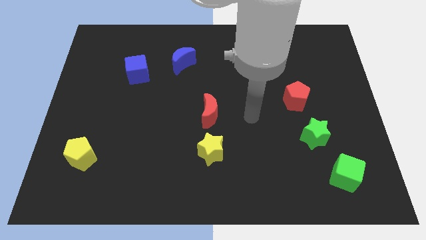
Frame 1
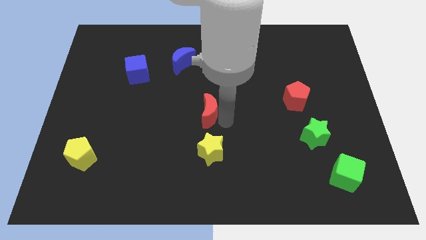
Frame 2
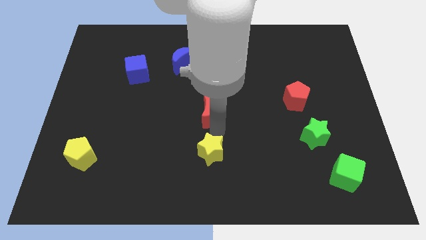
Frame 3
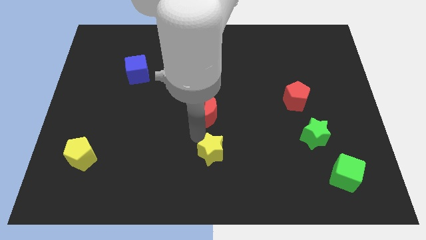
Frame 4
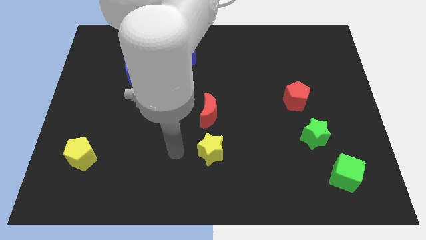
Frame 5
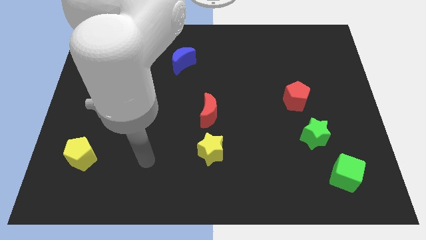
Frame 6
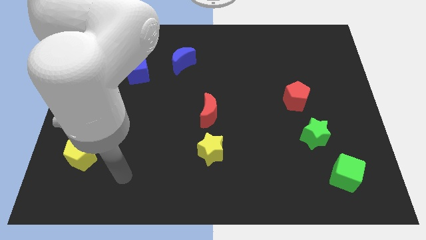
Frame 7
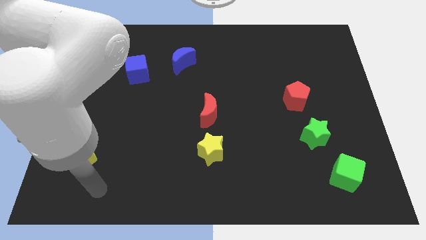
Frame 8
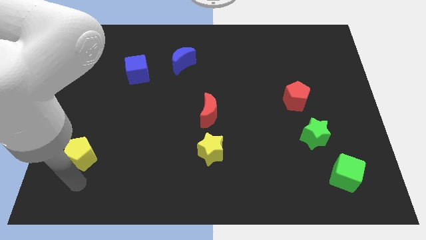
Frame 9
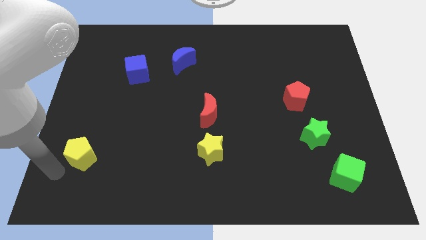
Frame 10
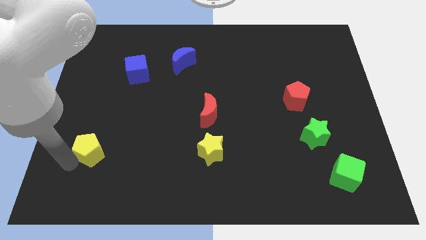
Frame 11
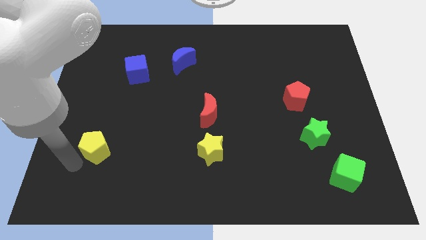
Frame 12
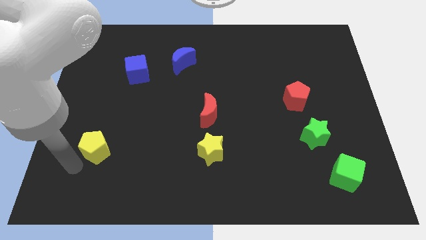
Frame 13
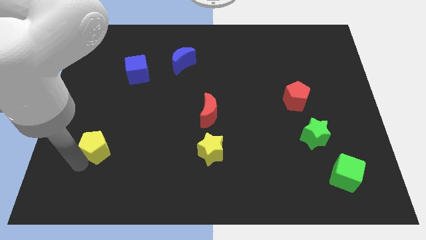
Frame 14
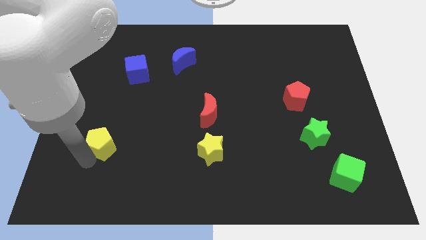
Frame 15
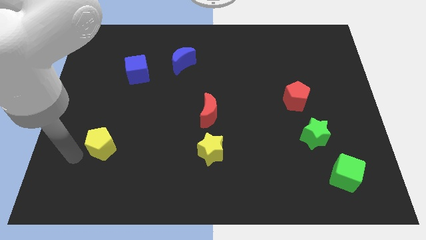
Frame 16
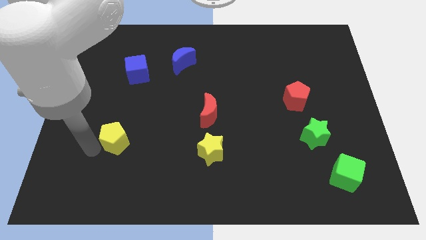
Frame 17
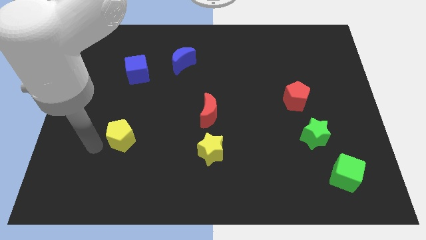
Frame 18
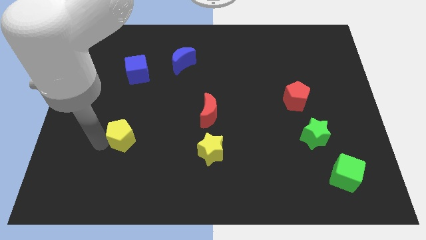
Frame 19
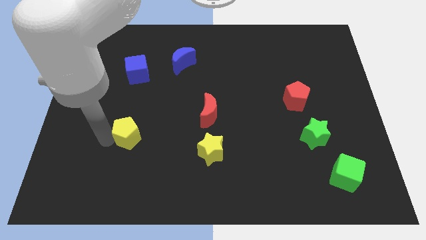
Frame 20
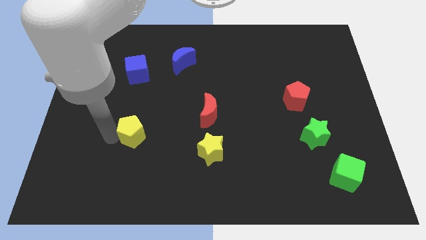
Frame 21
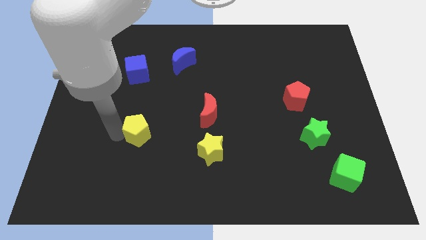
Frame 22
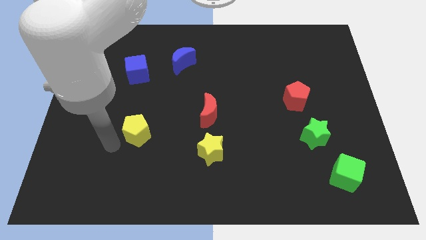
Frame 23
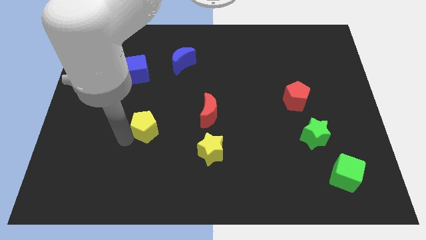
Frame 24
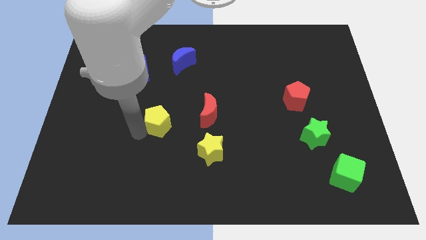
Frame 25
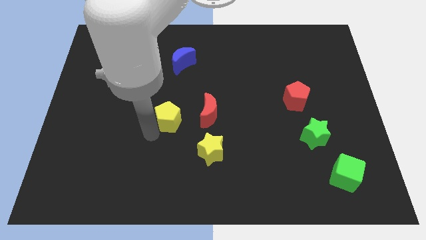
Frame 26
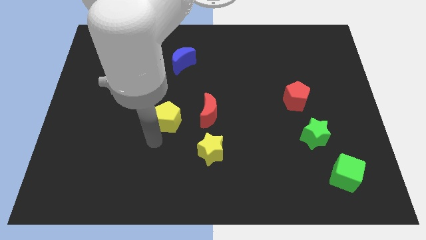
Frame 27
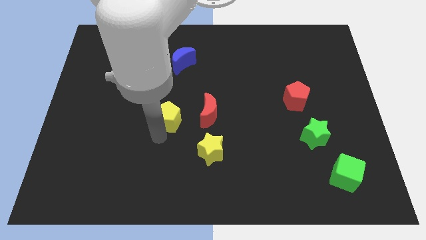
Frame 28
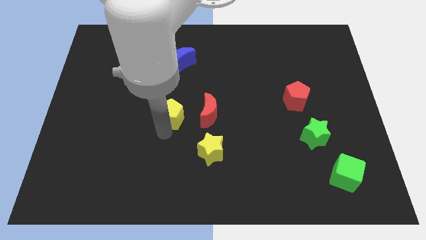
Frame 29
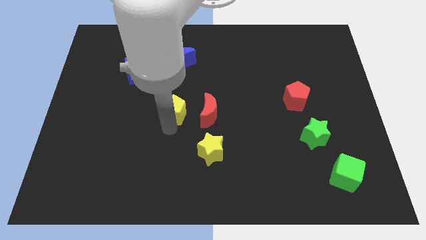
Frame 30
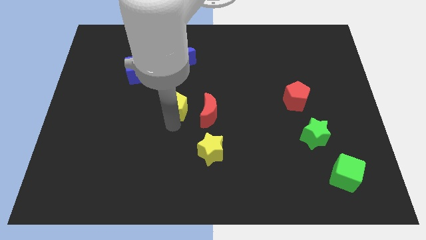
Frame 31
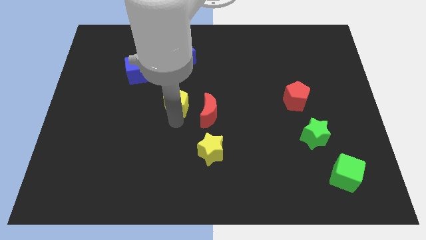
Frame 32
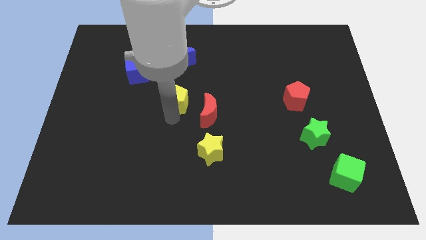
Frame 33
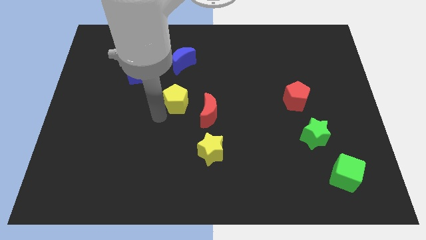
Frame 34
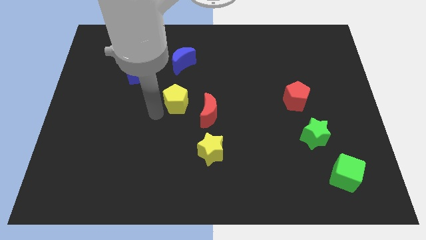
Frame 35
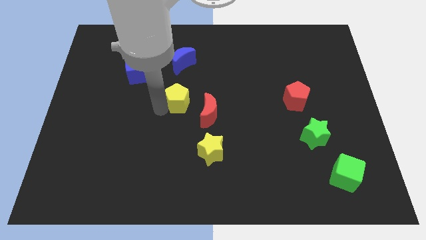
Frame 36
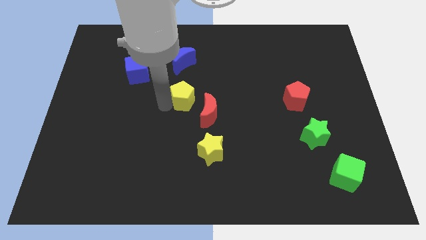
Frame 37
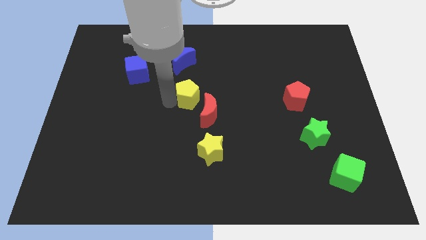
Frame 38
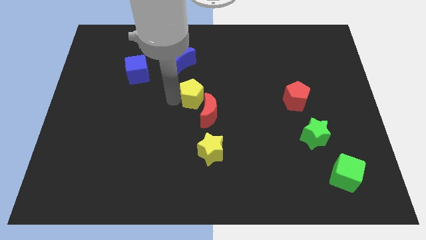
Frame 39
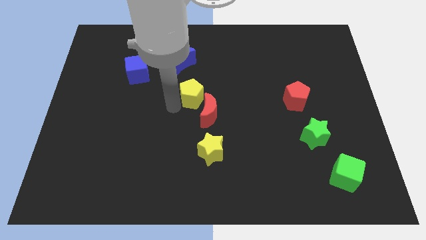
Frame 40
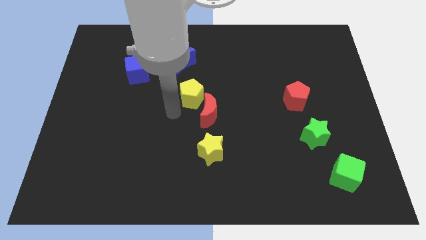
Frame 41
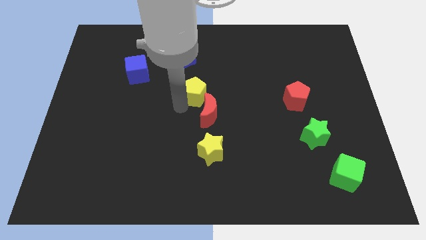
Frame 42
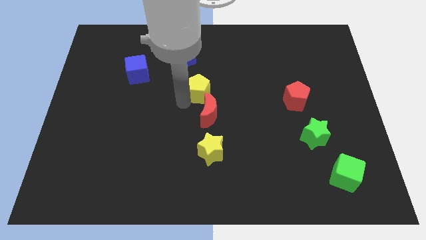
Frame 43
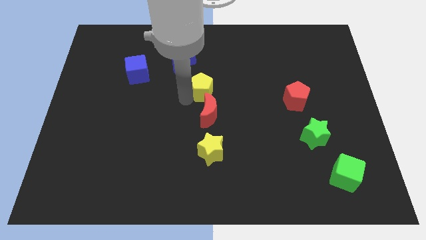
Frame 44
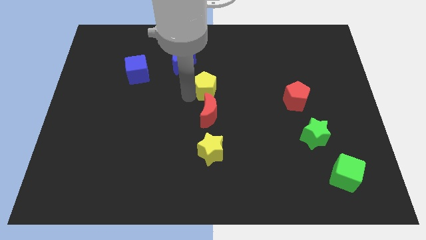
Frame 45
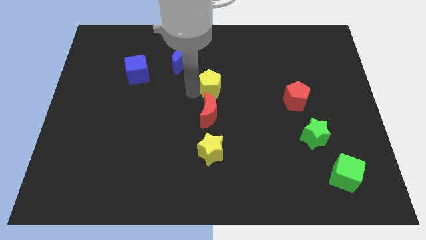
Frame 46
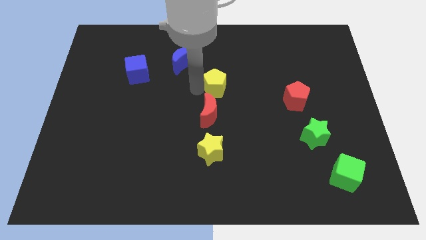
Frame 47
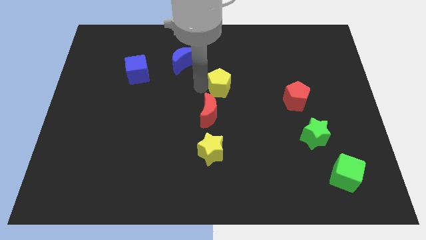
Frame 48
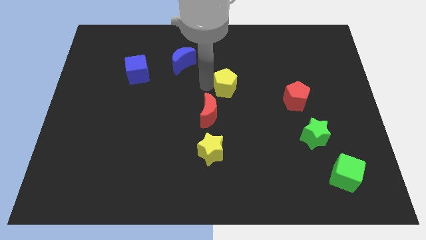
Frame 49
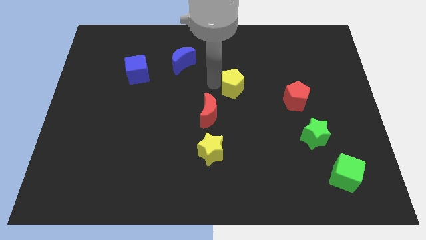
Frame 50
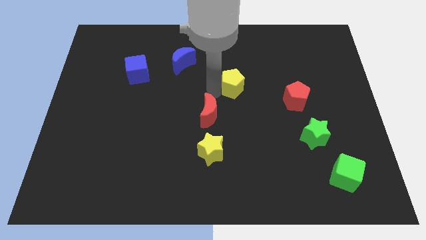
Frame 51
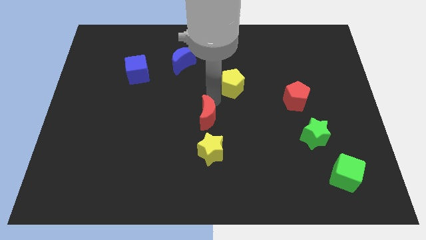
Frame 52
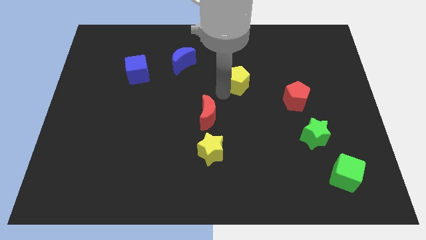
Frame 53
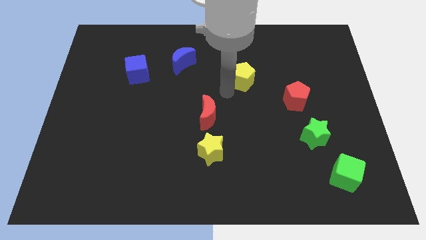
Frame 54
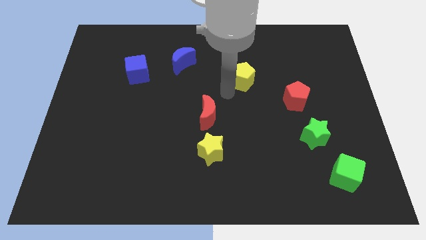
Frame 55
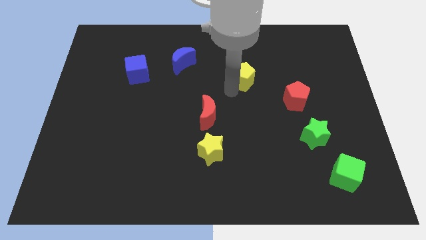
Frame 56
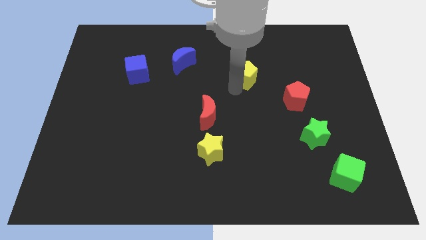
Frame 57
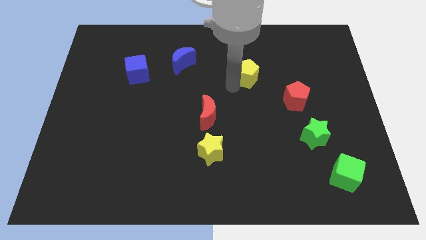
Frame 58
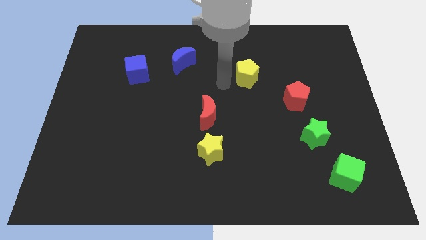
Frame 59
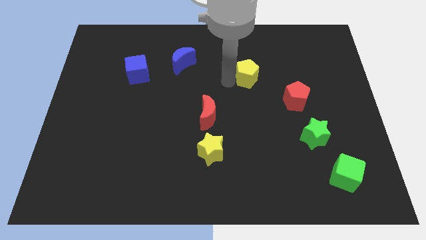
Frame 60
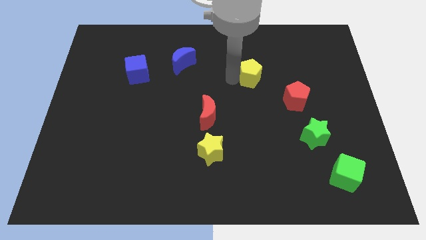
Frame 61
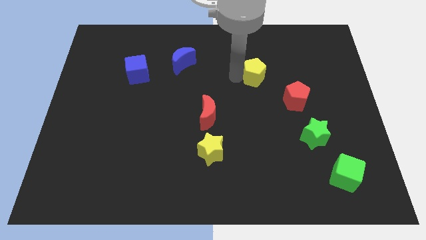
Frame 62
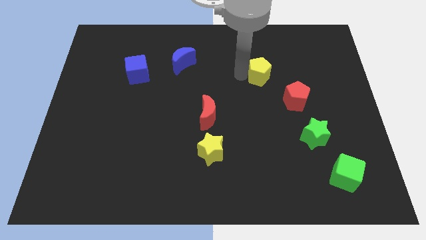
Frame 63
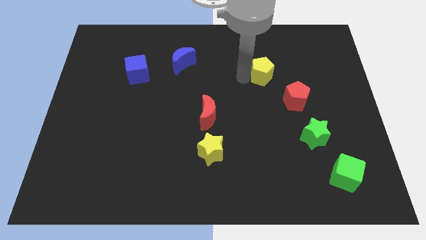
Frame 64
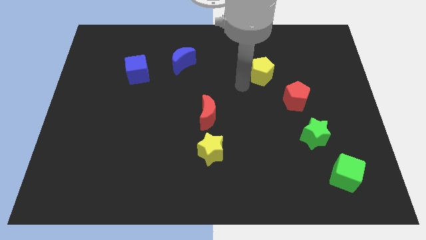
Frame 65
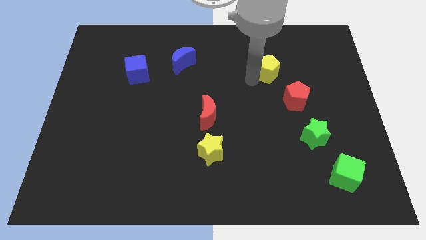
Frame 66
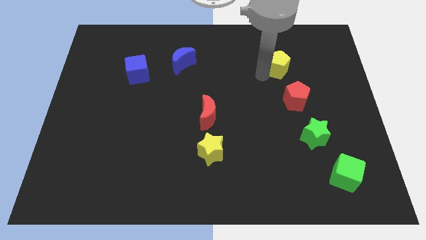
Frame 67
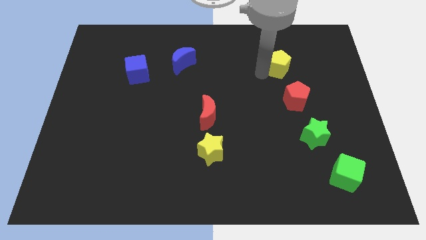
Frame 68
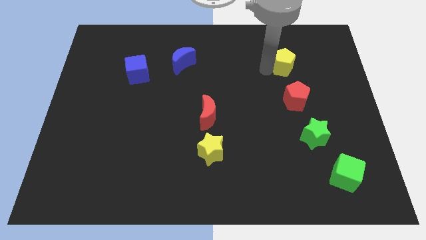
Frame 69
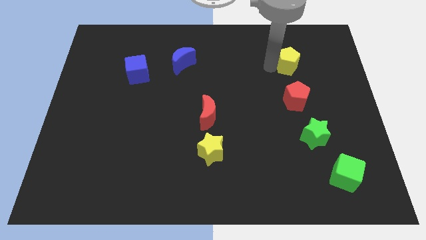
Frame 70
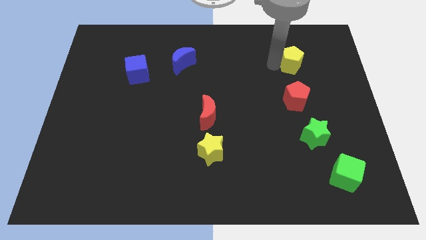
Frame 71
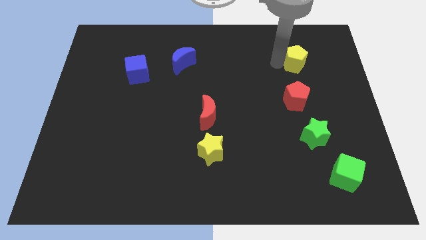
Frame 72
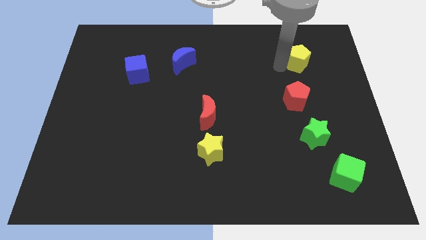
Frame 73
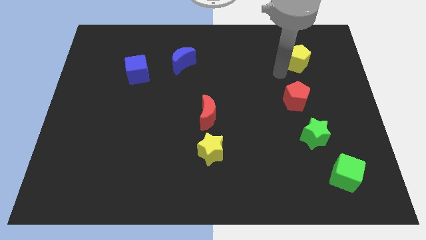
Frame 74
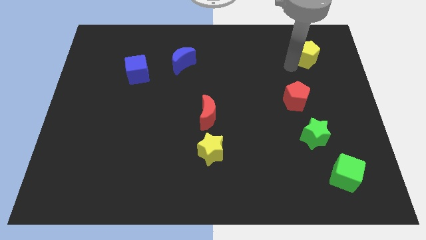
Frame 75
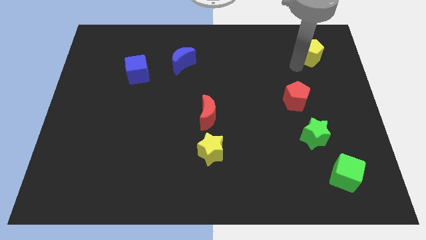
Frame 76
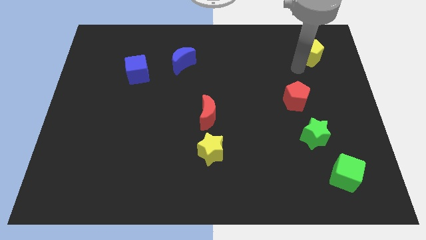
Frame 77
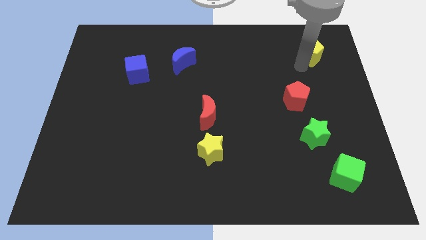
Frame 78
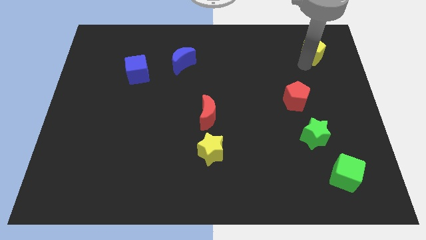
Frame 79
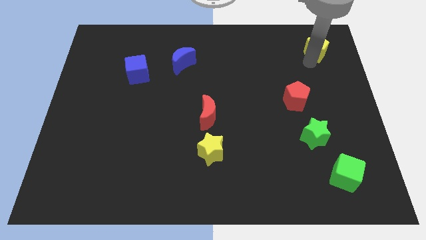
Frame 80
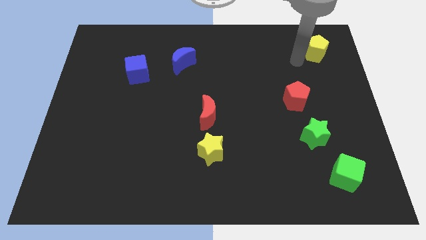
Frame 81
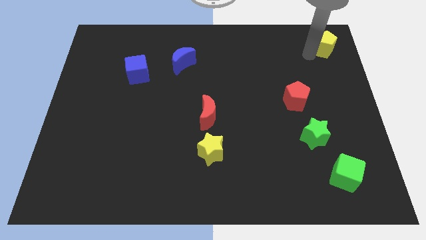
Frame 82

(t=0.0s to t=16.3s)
move the yellow pentagon to the top right of the board
